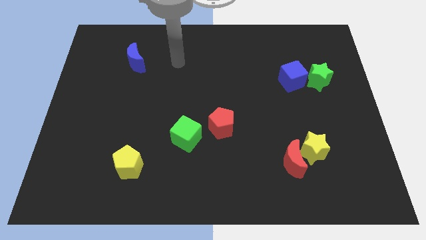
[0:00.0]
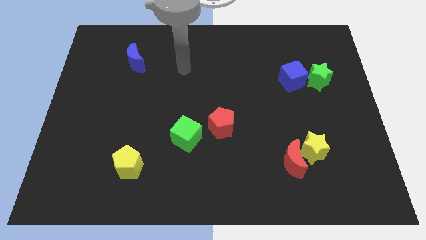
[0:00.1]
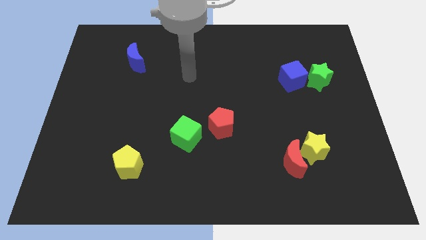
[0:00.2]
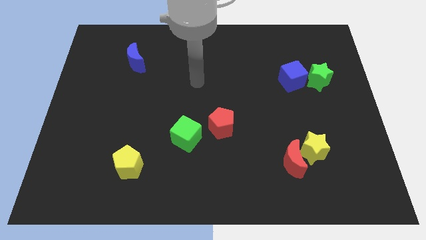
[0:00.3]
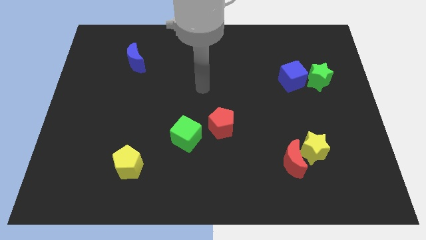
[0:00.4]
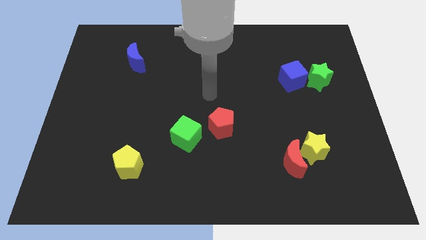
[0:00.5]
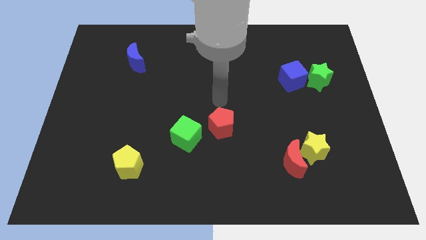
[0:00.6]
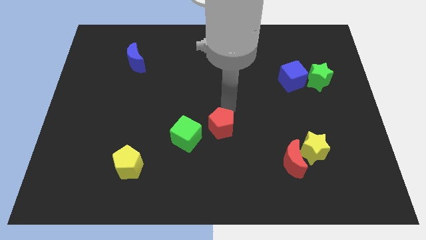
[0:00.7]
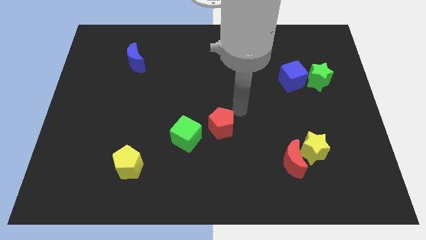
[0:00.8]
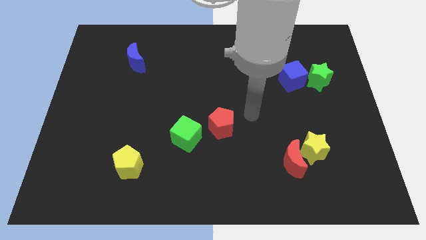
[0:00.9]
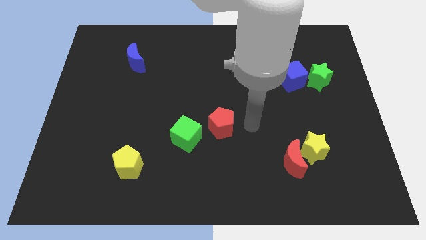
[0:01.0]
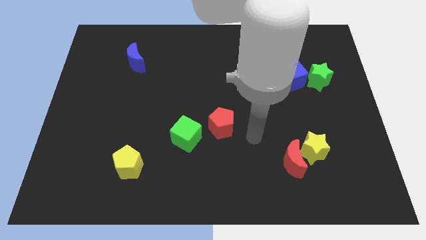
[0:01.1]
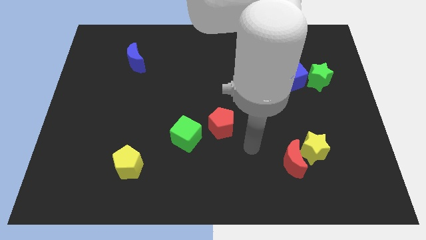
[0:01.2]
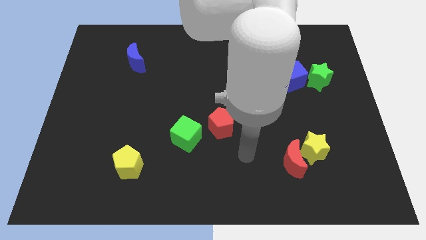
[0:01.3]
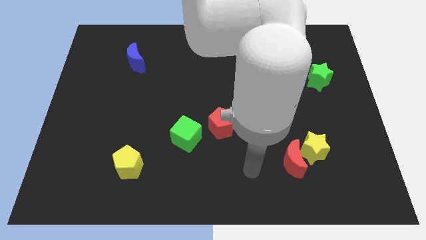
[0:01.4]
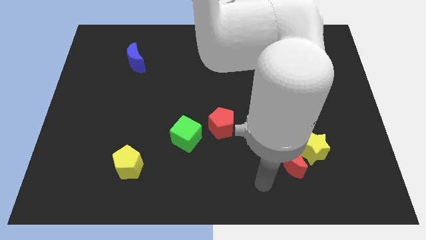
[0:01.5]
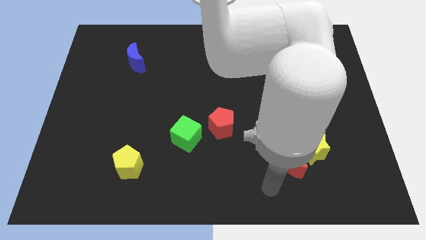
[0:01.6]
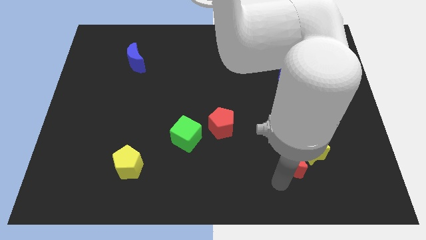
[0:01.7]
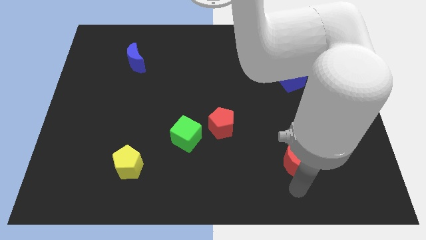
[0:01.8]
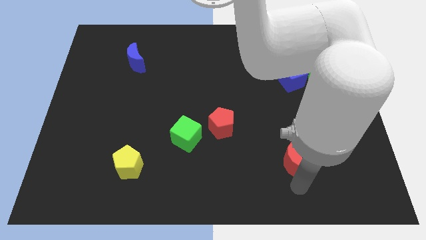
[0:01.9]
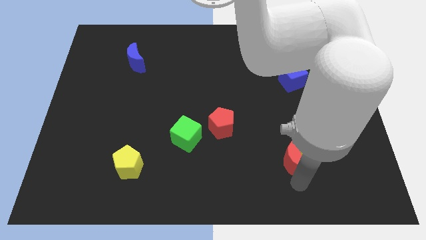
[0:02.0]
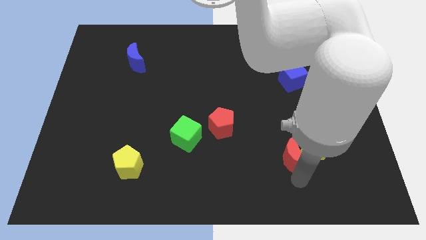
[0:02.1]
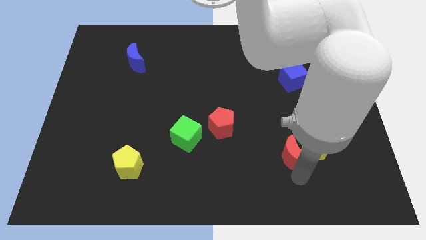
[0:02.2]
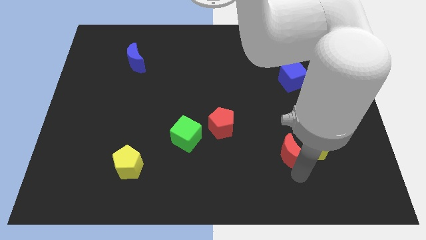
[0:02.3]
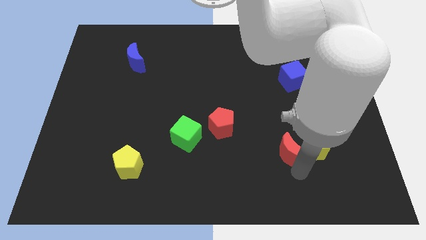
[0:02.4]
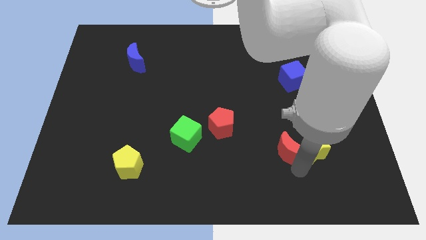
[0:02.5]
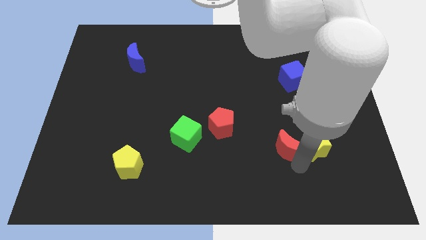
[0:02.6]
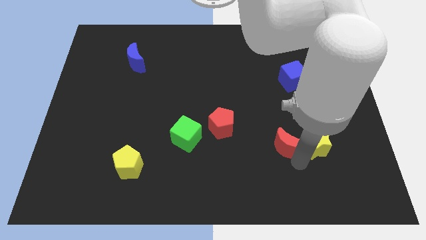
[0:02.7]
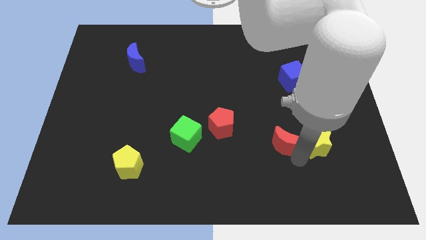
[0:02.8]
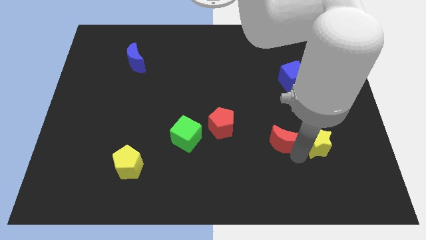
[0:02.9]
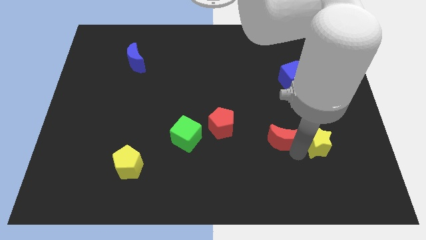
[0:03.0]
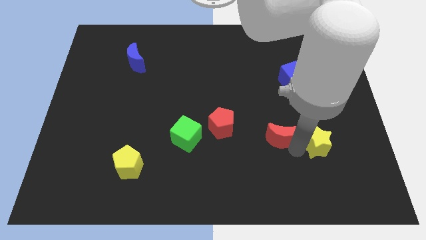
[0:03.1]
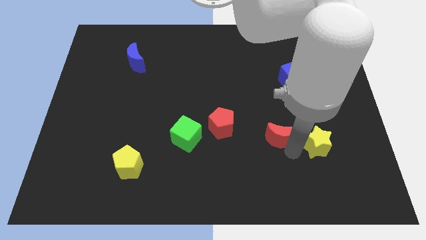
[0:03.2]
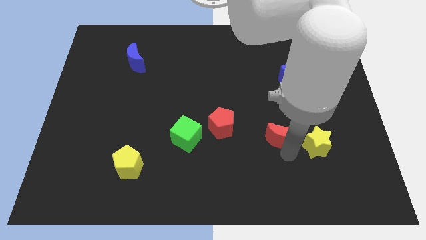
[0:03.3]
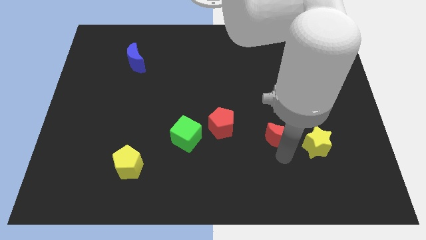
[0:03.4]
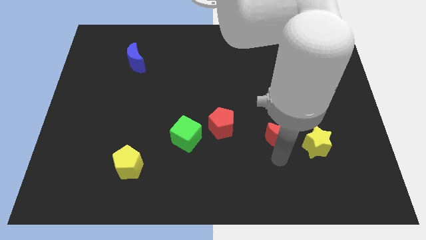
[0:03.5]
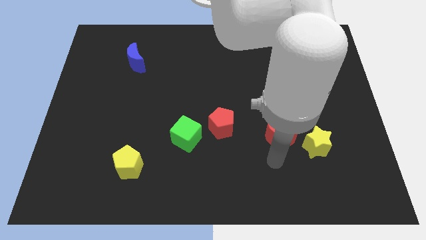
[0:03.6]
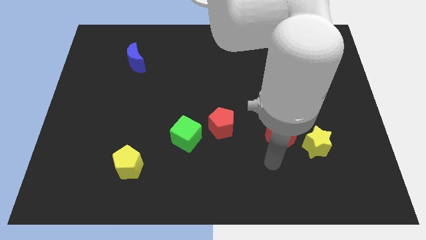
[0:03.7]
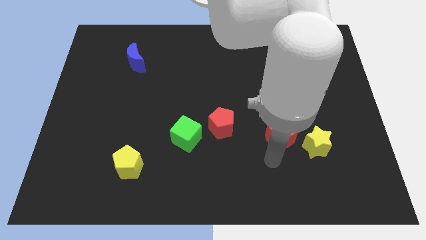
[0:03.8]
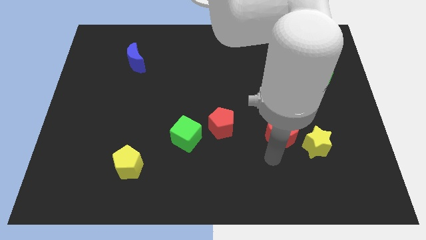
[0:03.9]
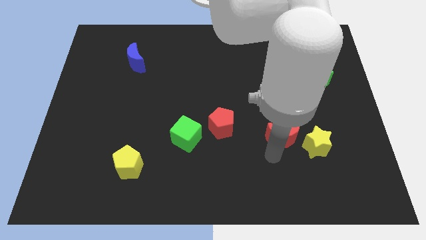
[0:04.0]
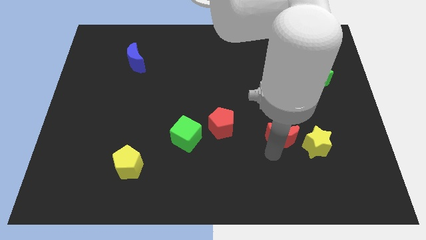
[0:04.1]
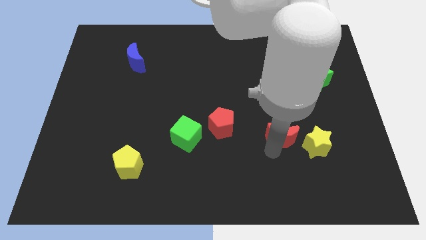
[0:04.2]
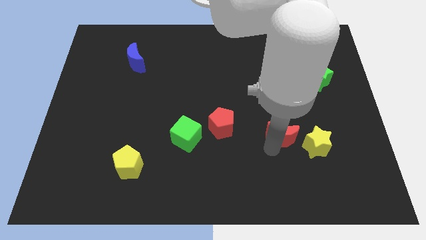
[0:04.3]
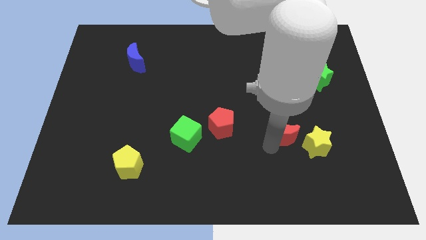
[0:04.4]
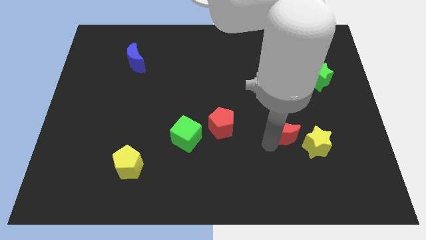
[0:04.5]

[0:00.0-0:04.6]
slightly move the red moon up

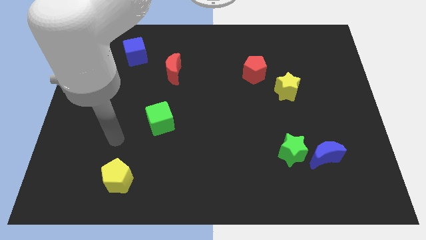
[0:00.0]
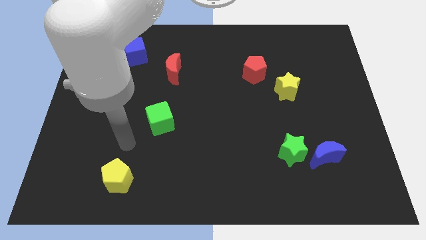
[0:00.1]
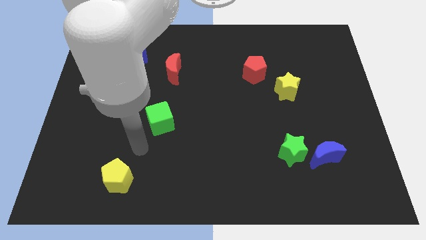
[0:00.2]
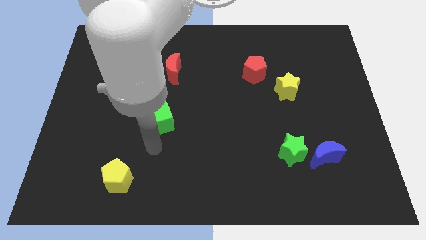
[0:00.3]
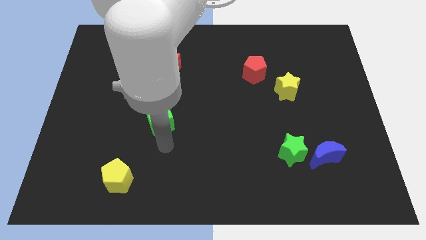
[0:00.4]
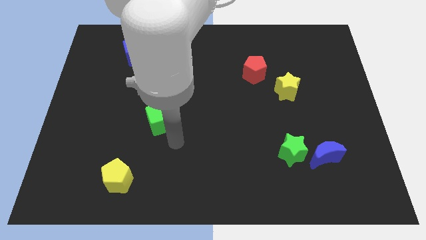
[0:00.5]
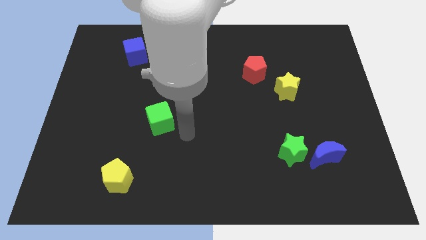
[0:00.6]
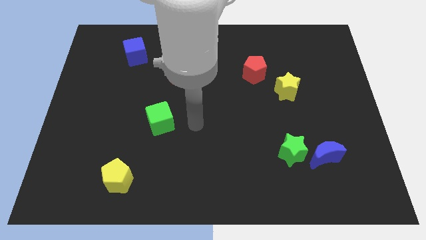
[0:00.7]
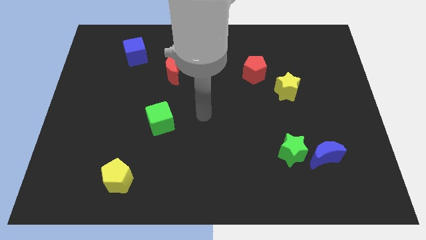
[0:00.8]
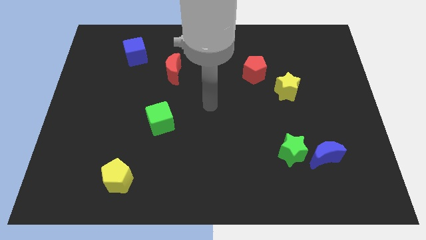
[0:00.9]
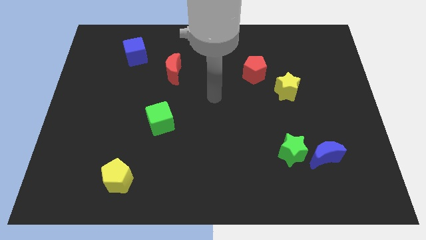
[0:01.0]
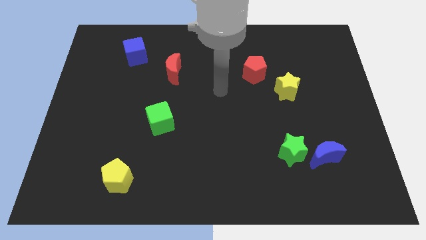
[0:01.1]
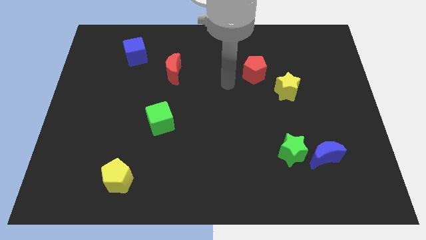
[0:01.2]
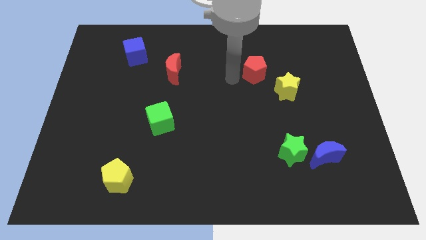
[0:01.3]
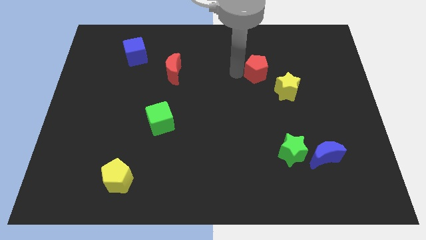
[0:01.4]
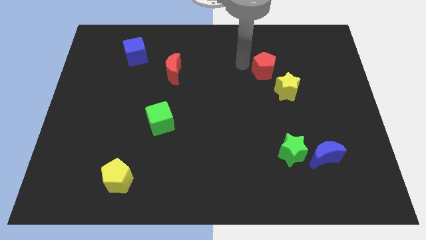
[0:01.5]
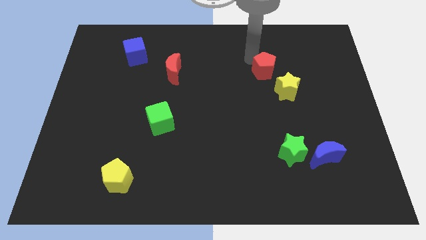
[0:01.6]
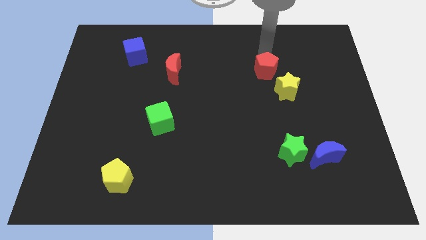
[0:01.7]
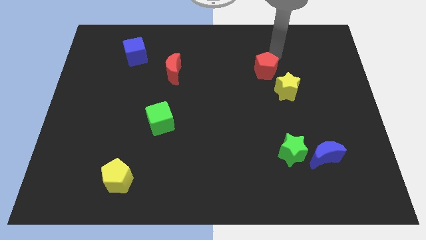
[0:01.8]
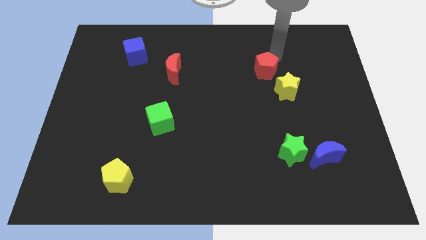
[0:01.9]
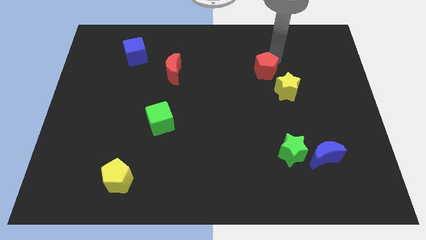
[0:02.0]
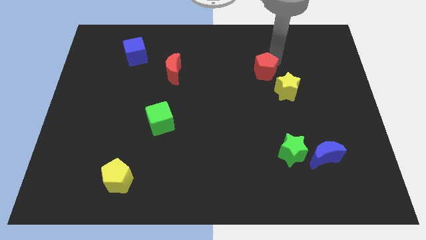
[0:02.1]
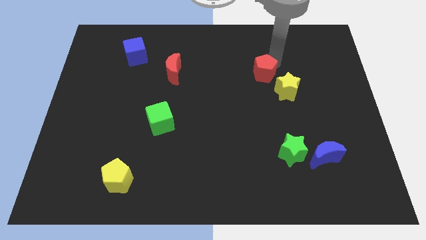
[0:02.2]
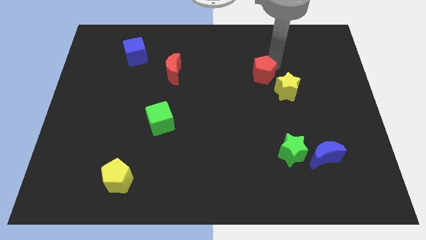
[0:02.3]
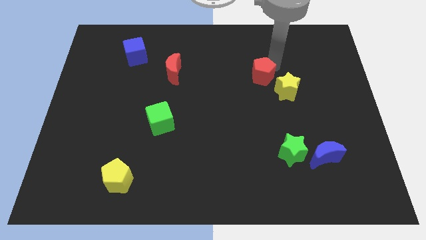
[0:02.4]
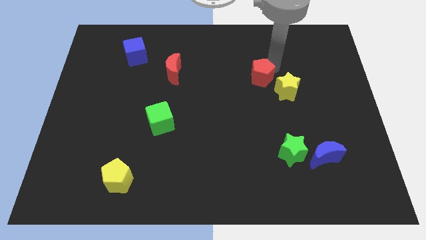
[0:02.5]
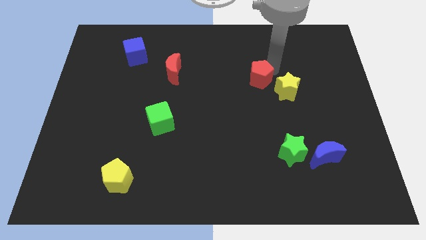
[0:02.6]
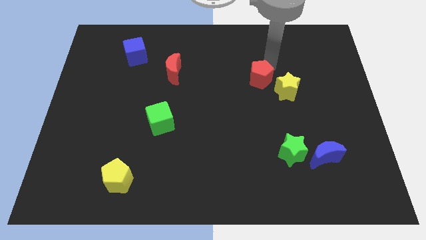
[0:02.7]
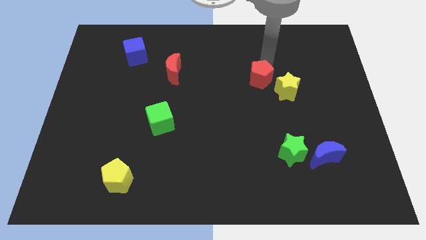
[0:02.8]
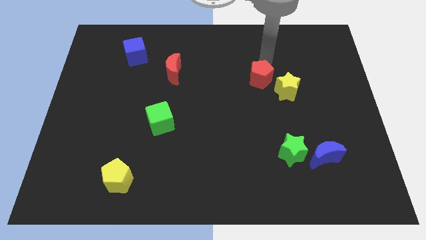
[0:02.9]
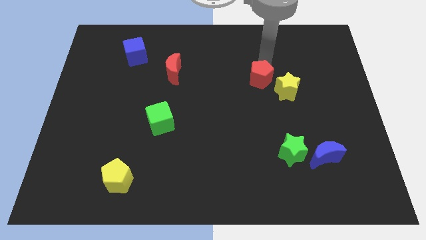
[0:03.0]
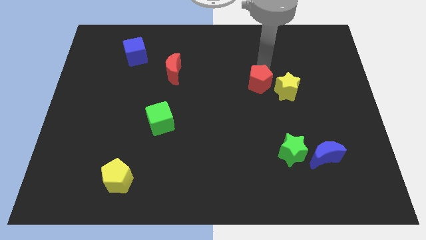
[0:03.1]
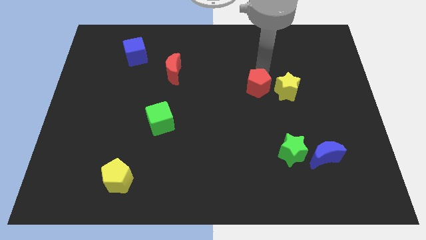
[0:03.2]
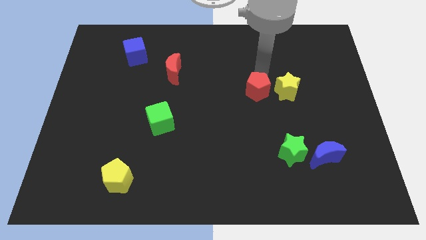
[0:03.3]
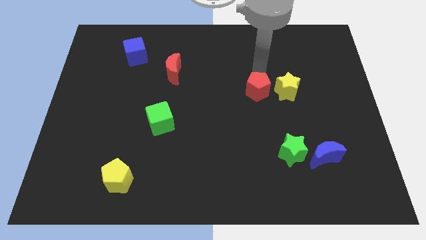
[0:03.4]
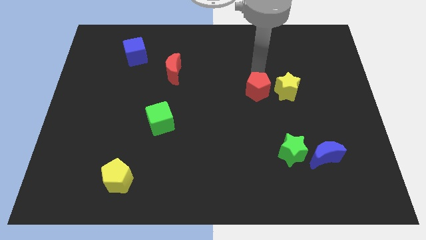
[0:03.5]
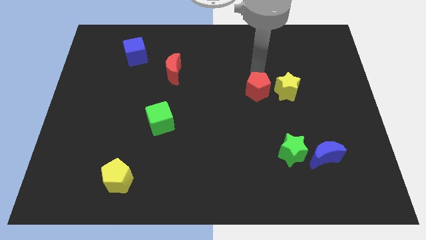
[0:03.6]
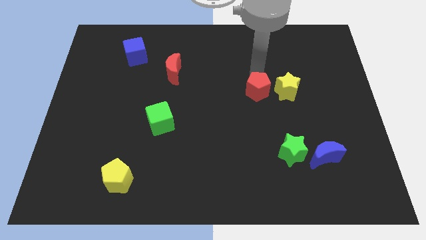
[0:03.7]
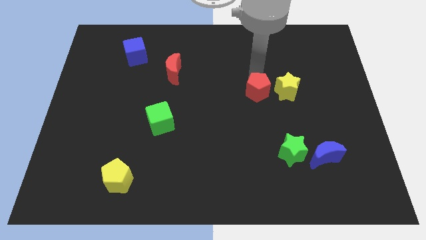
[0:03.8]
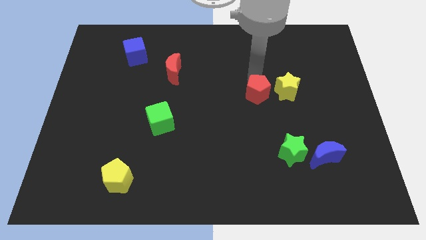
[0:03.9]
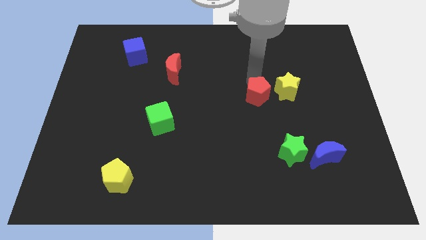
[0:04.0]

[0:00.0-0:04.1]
slightly move the red pentagon down
